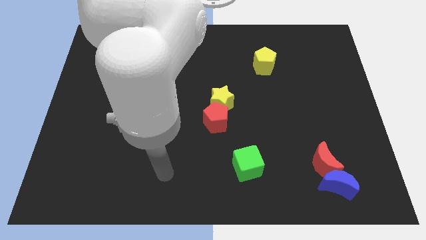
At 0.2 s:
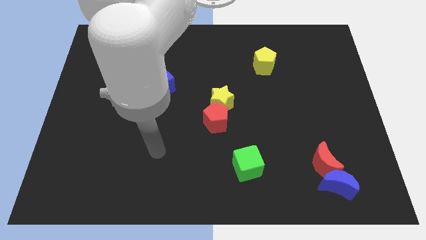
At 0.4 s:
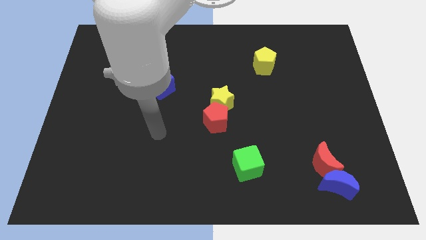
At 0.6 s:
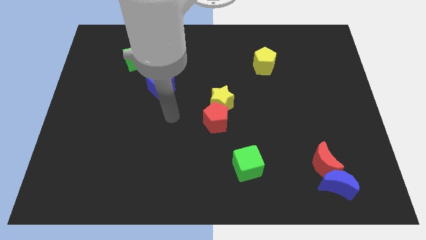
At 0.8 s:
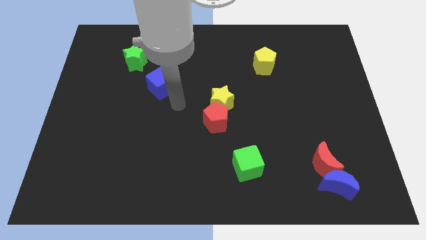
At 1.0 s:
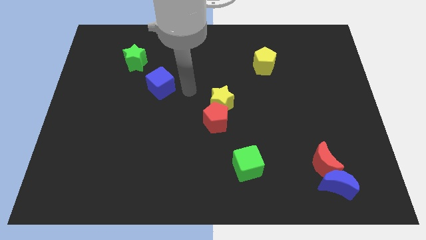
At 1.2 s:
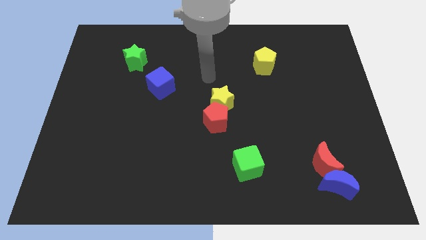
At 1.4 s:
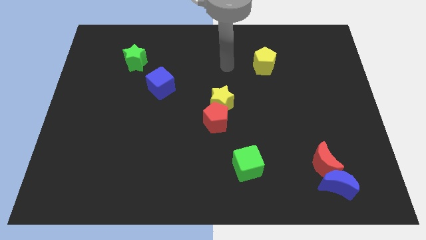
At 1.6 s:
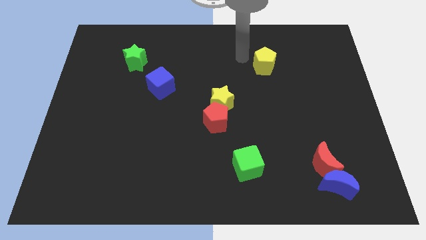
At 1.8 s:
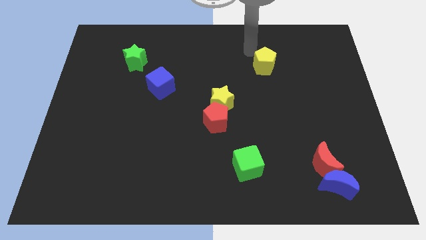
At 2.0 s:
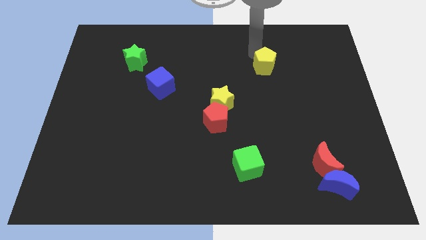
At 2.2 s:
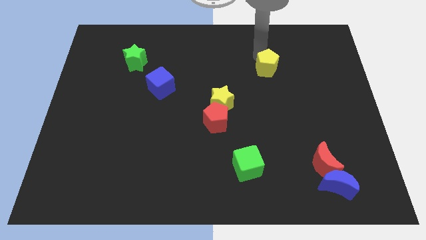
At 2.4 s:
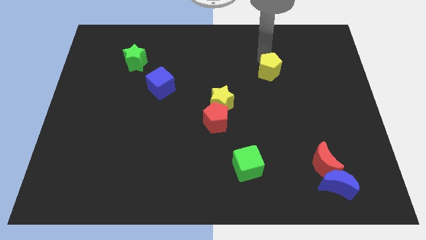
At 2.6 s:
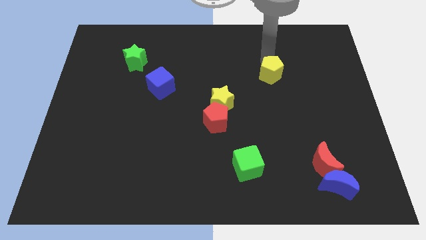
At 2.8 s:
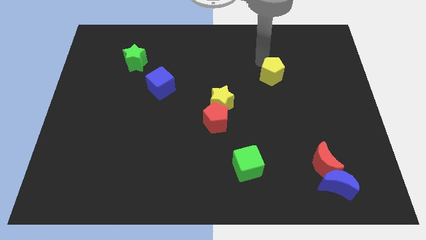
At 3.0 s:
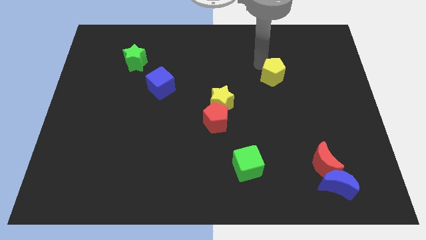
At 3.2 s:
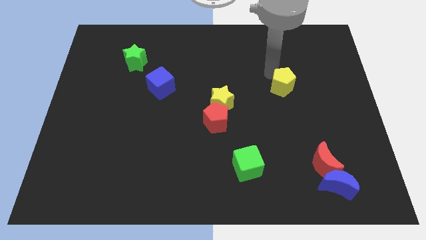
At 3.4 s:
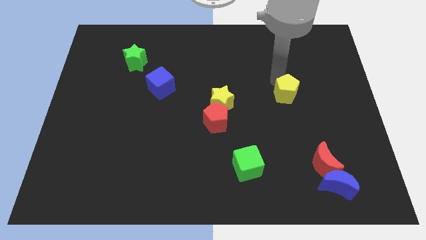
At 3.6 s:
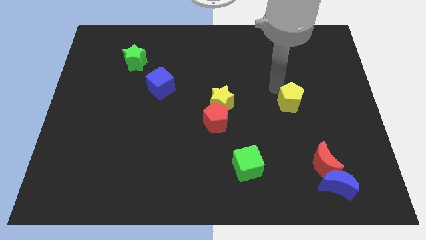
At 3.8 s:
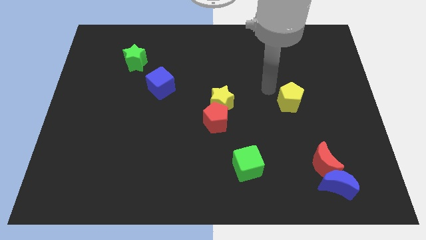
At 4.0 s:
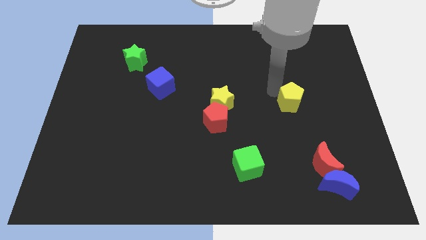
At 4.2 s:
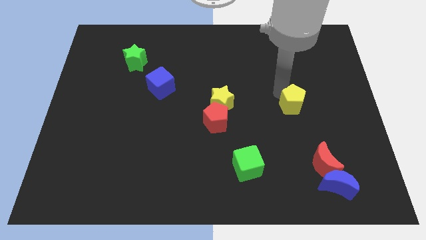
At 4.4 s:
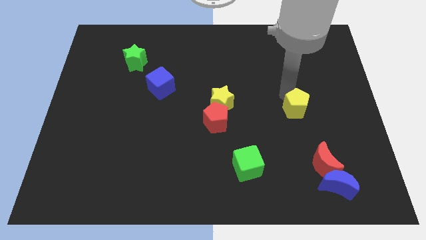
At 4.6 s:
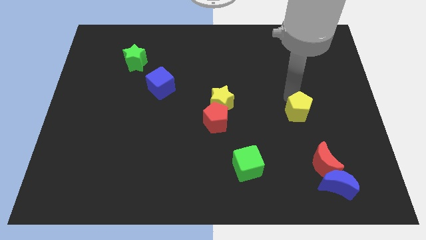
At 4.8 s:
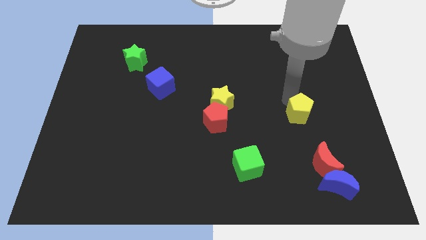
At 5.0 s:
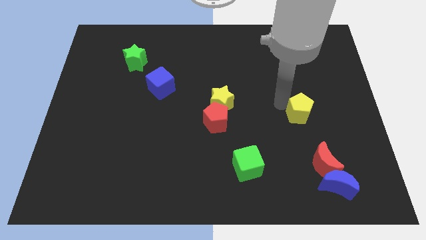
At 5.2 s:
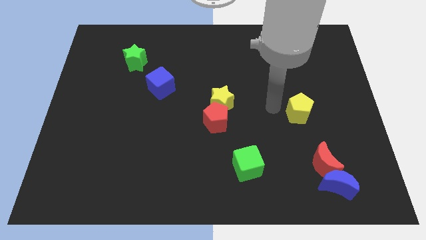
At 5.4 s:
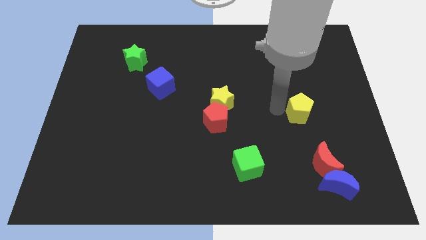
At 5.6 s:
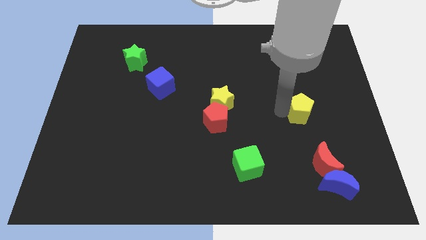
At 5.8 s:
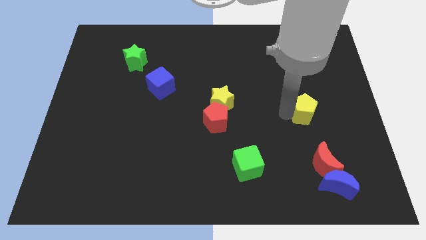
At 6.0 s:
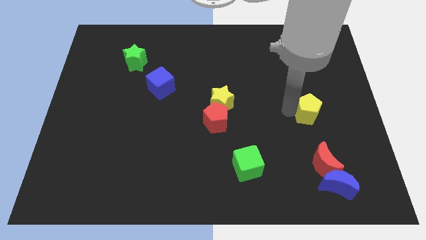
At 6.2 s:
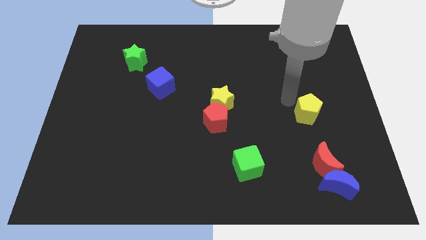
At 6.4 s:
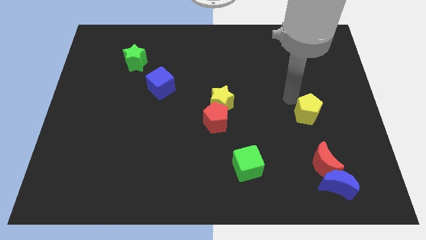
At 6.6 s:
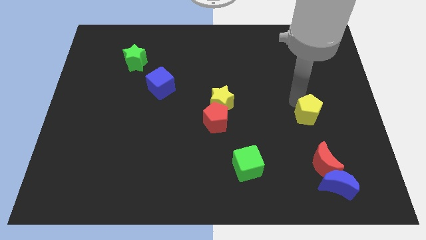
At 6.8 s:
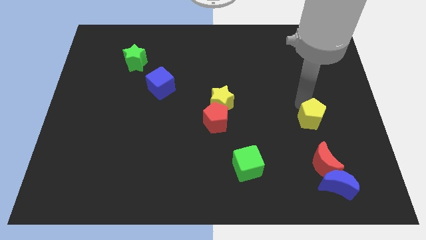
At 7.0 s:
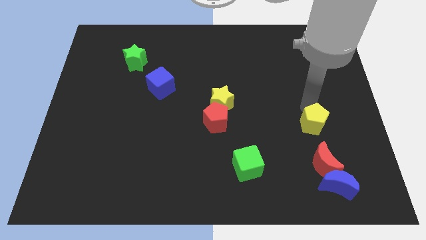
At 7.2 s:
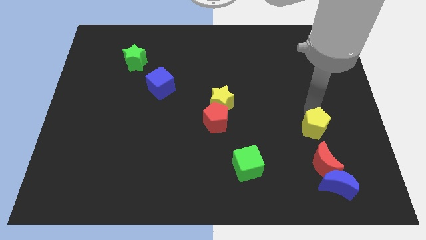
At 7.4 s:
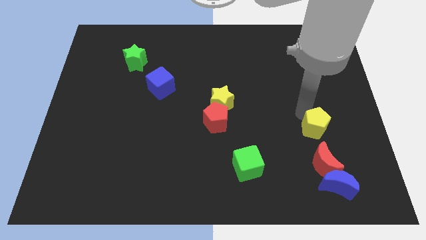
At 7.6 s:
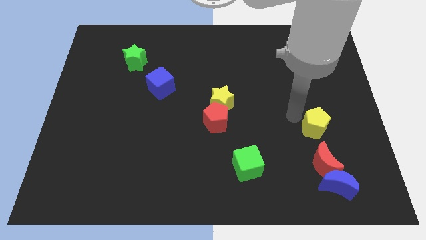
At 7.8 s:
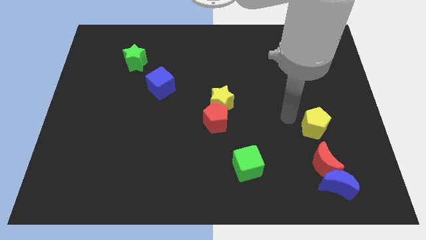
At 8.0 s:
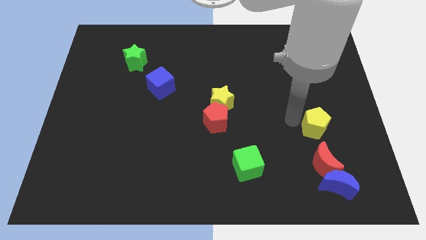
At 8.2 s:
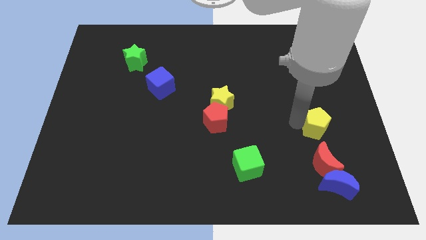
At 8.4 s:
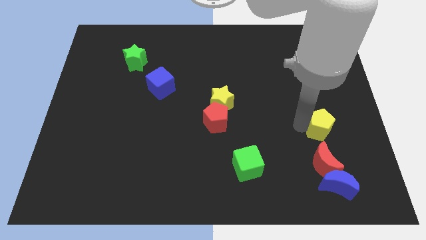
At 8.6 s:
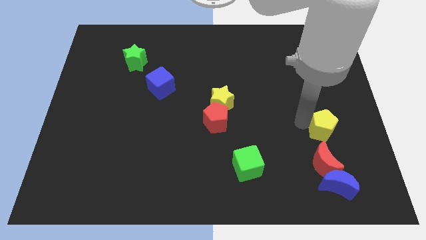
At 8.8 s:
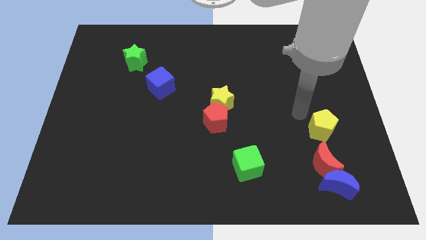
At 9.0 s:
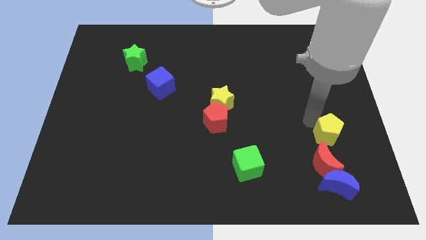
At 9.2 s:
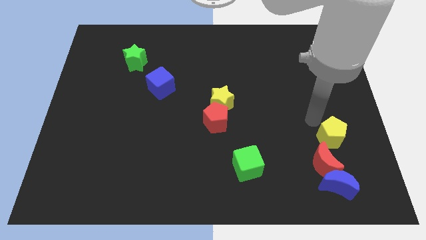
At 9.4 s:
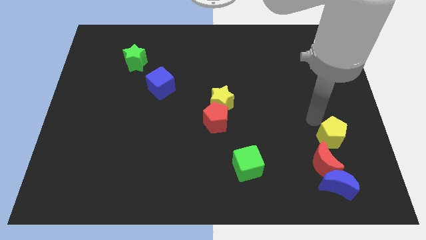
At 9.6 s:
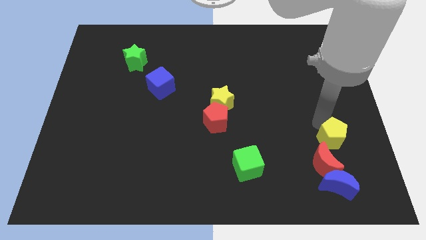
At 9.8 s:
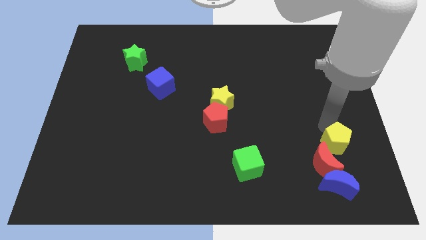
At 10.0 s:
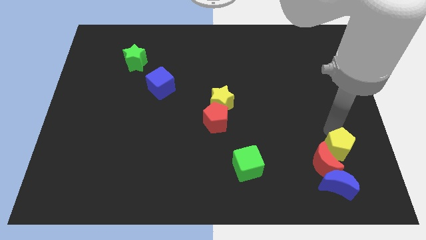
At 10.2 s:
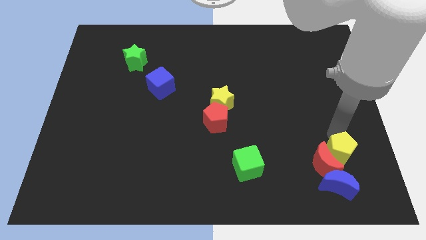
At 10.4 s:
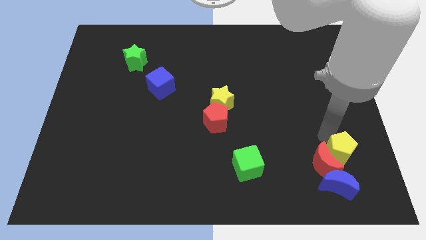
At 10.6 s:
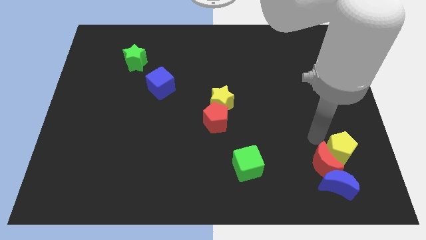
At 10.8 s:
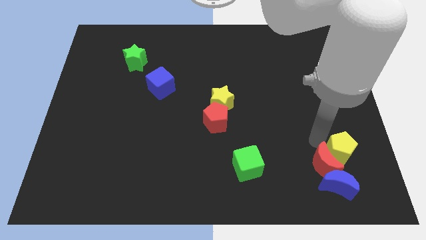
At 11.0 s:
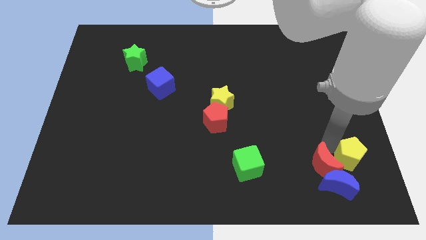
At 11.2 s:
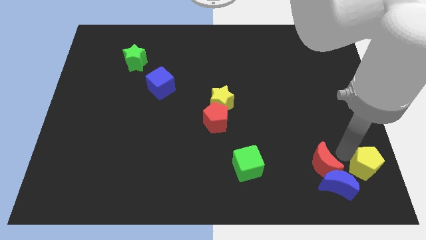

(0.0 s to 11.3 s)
put the yellow pentagon to the bottom right of the board
